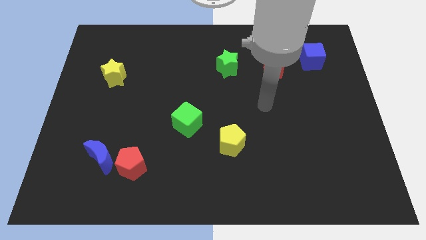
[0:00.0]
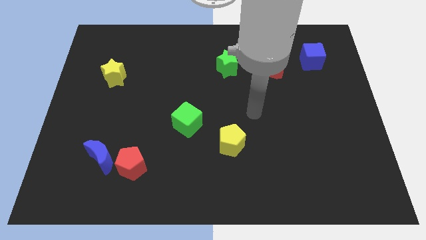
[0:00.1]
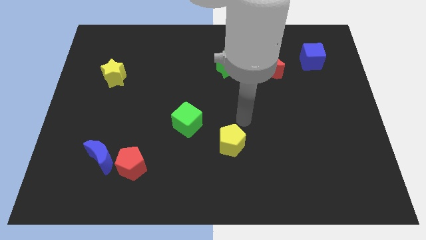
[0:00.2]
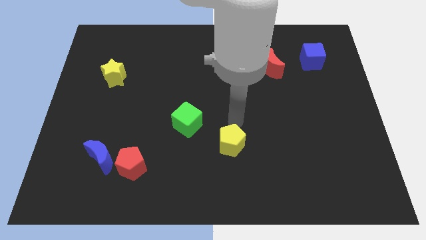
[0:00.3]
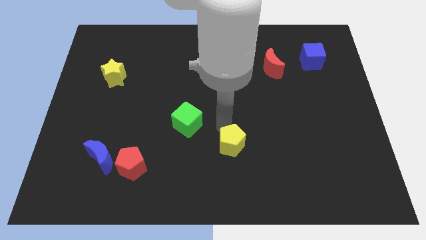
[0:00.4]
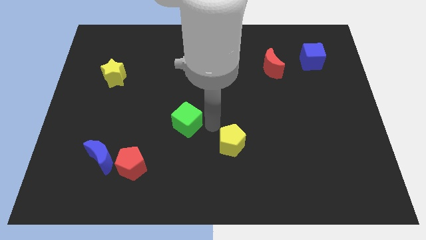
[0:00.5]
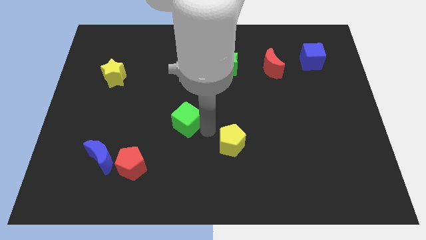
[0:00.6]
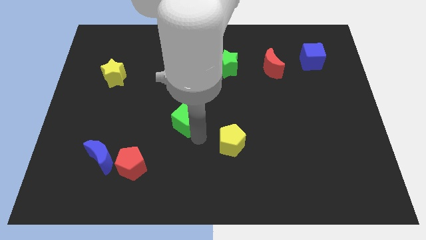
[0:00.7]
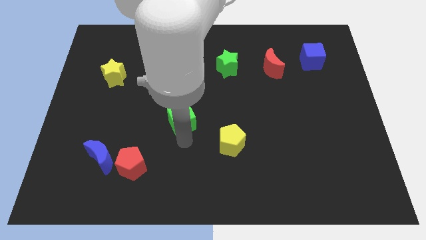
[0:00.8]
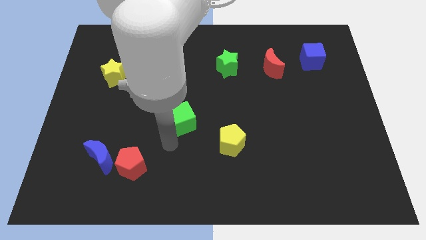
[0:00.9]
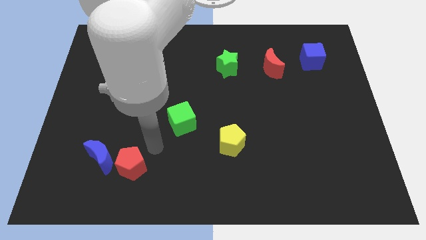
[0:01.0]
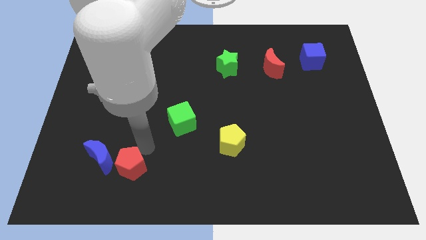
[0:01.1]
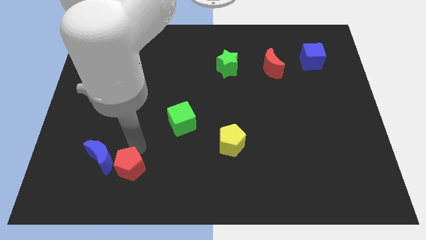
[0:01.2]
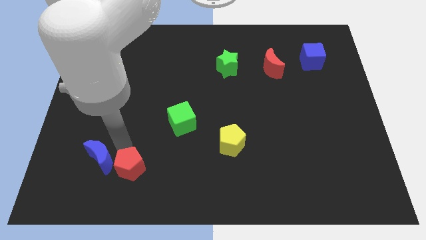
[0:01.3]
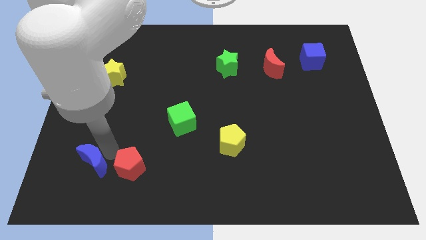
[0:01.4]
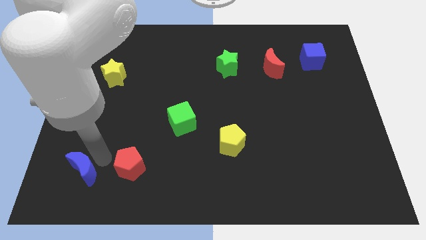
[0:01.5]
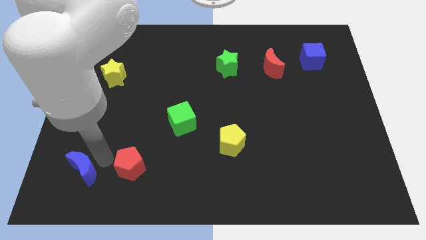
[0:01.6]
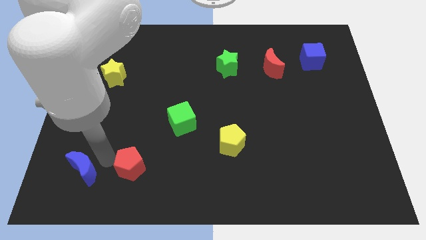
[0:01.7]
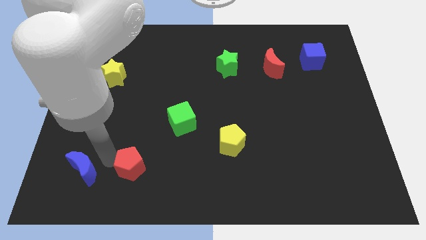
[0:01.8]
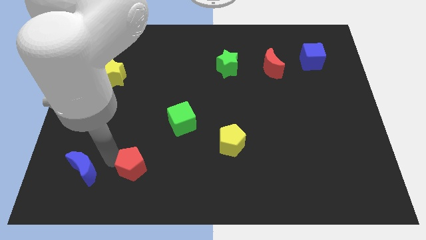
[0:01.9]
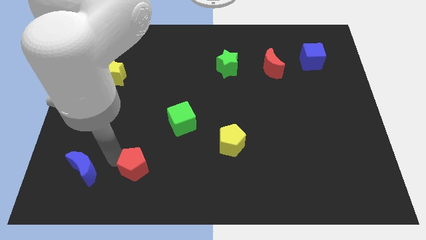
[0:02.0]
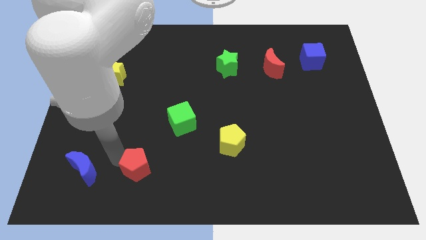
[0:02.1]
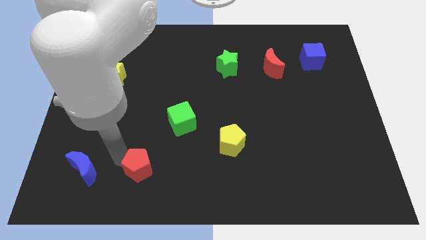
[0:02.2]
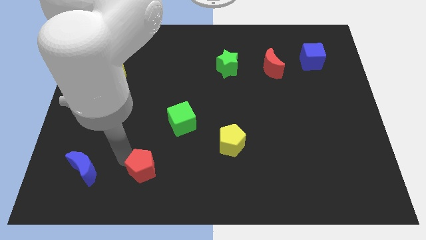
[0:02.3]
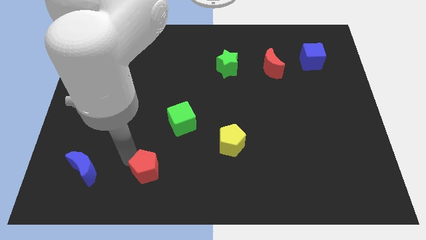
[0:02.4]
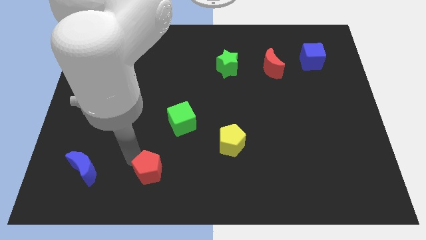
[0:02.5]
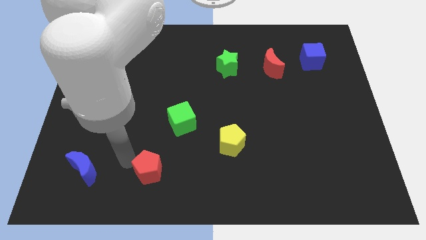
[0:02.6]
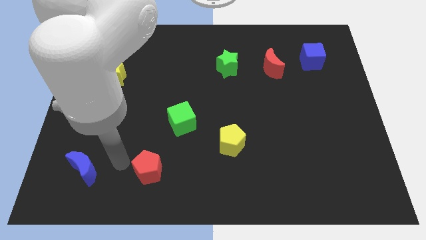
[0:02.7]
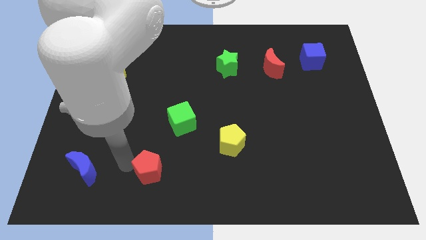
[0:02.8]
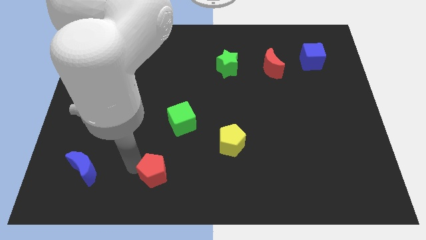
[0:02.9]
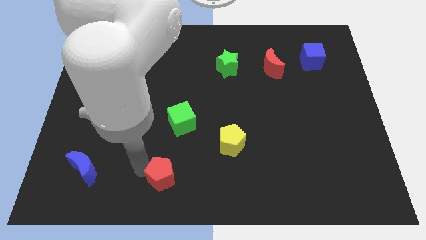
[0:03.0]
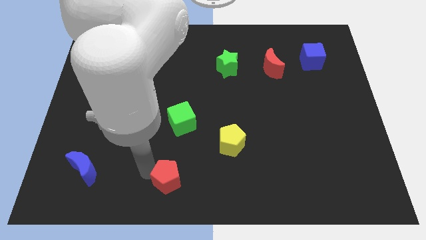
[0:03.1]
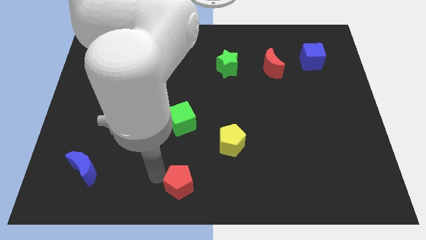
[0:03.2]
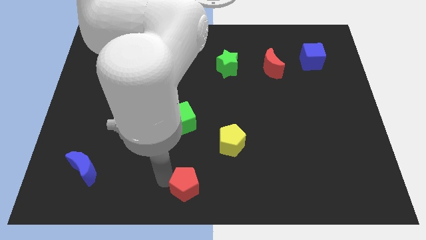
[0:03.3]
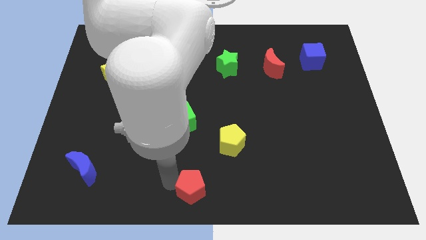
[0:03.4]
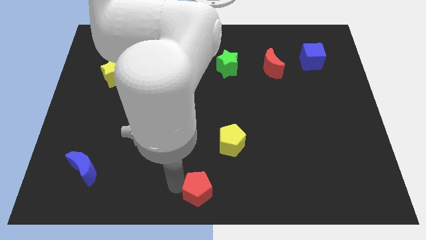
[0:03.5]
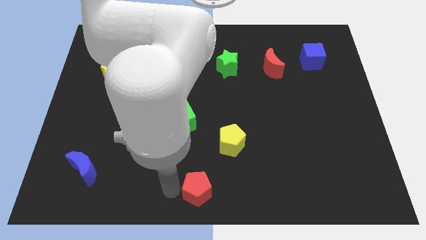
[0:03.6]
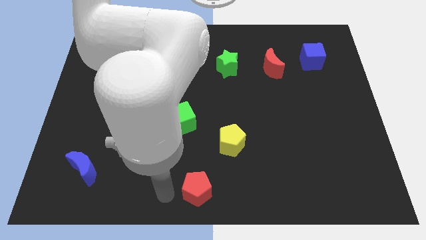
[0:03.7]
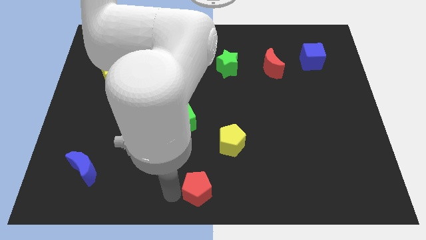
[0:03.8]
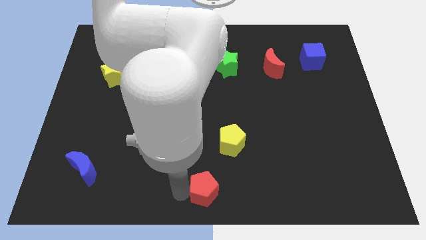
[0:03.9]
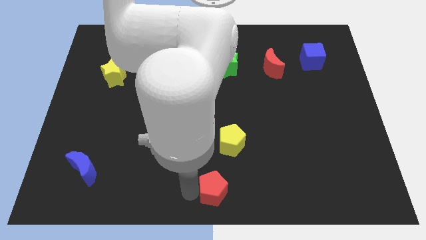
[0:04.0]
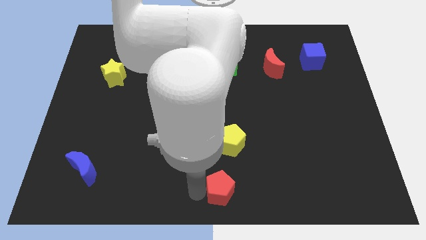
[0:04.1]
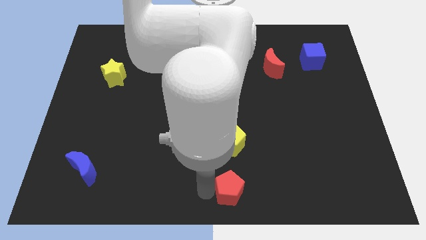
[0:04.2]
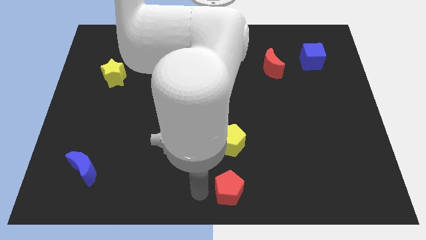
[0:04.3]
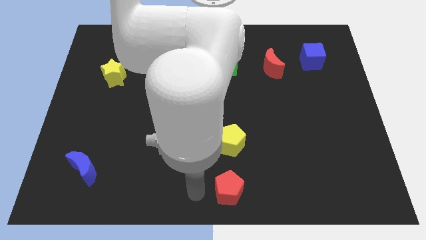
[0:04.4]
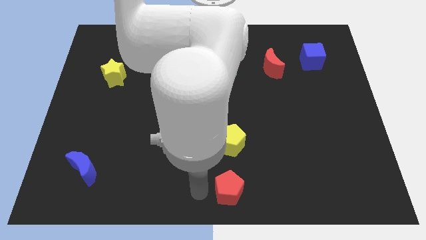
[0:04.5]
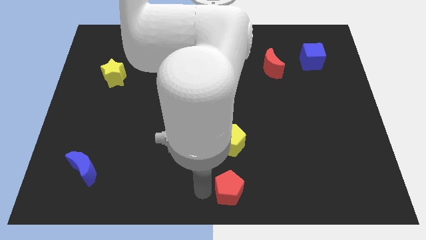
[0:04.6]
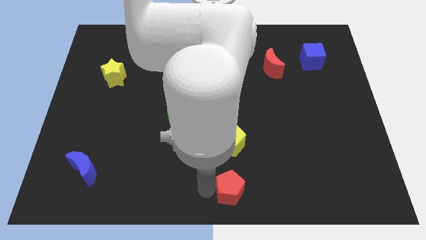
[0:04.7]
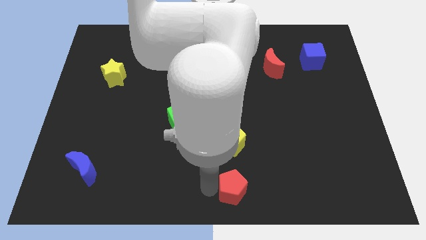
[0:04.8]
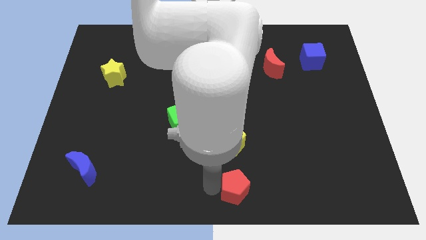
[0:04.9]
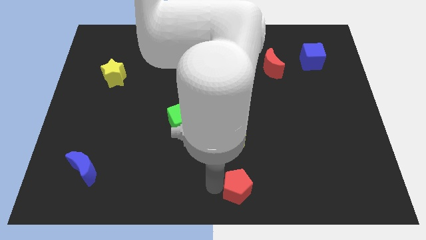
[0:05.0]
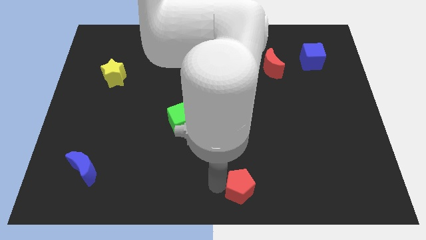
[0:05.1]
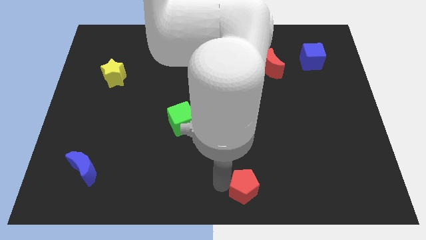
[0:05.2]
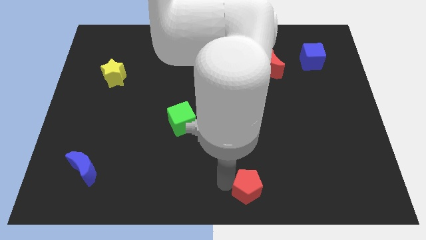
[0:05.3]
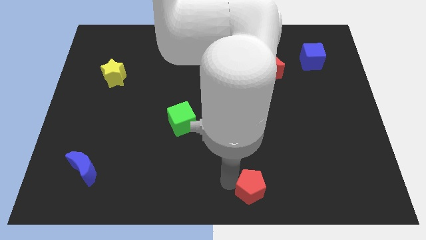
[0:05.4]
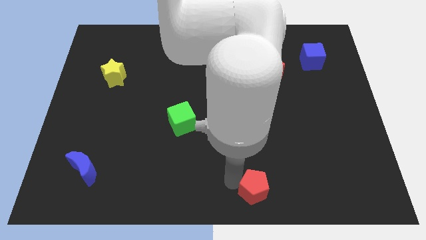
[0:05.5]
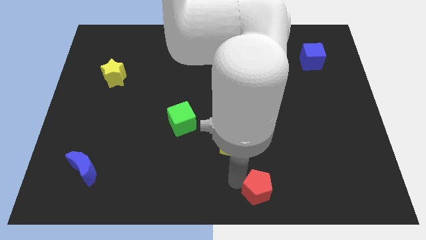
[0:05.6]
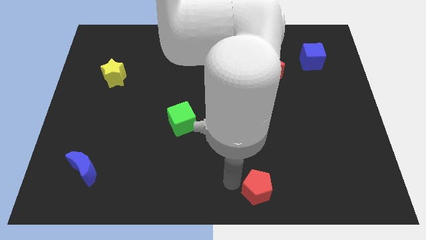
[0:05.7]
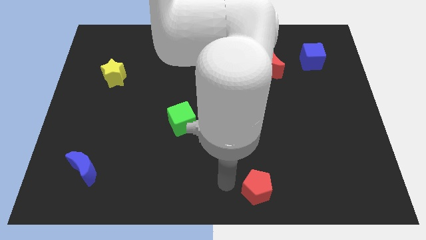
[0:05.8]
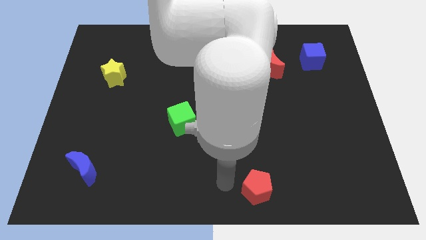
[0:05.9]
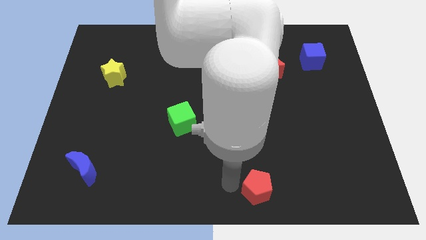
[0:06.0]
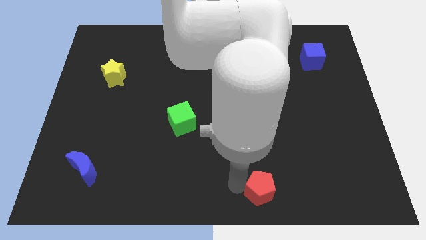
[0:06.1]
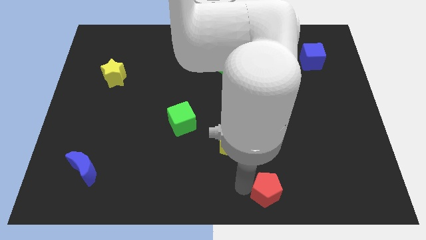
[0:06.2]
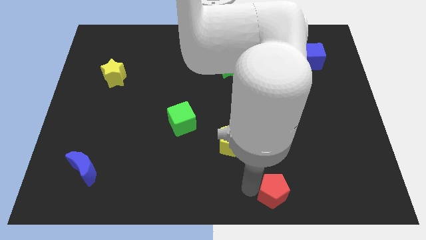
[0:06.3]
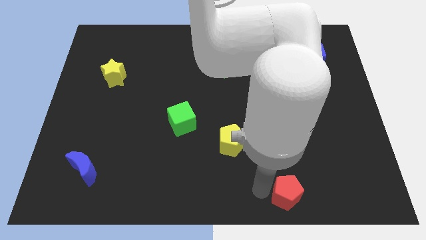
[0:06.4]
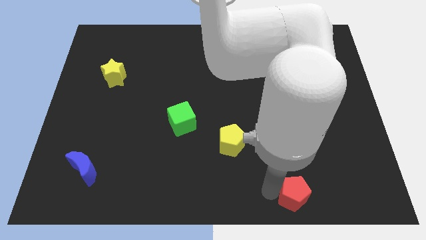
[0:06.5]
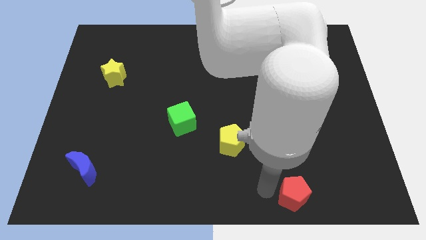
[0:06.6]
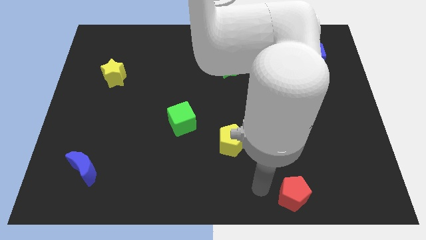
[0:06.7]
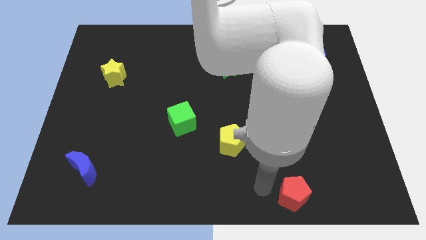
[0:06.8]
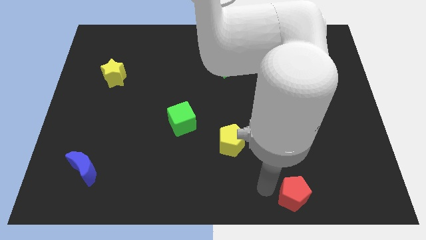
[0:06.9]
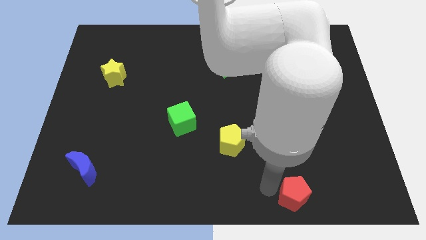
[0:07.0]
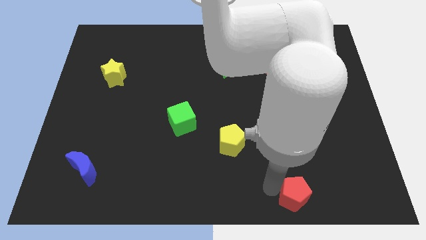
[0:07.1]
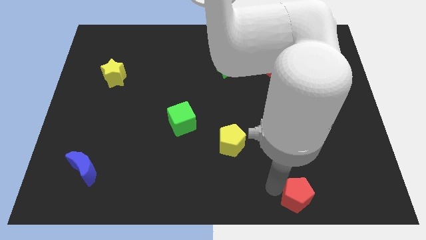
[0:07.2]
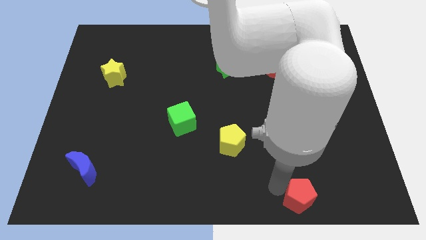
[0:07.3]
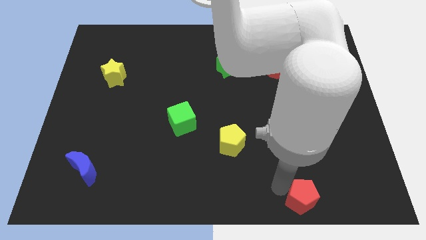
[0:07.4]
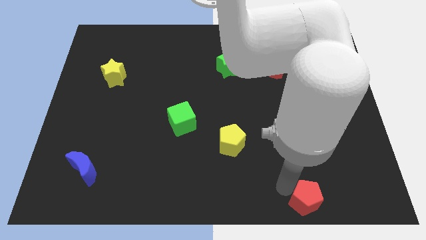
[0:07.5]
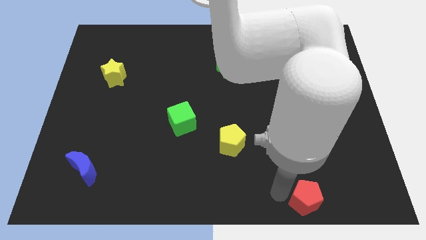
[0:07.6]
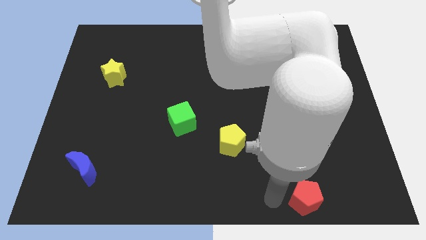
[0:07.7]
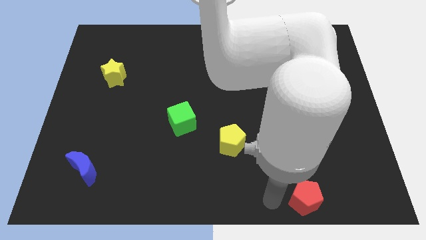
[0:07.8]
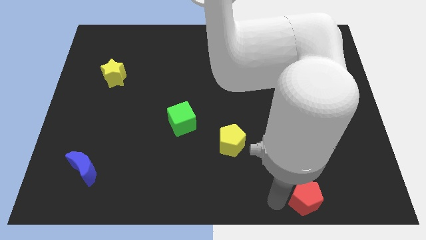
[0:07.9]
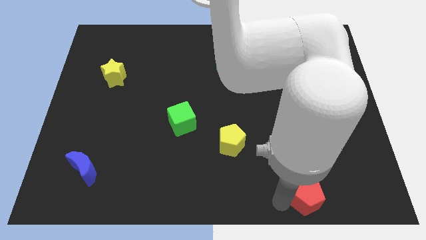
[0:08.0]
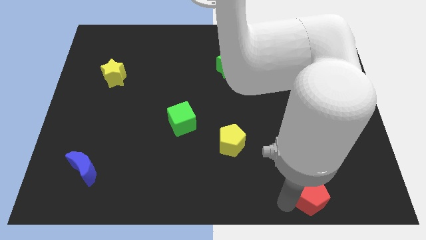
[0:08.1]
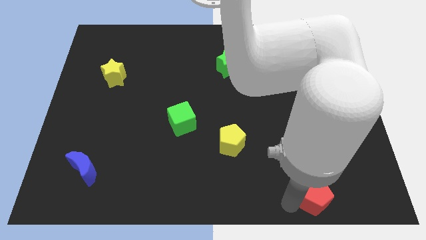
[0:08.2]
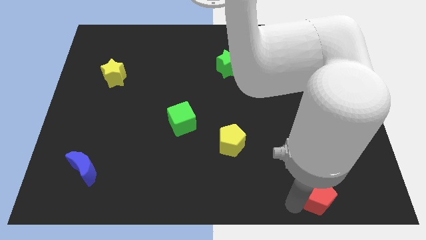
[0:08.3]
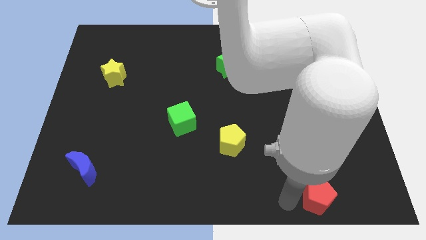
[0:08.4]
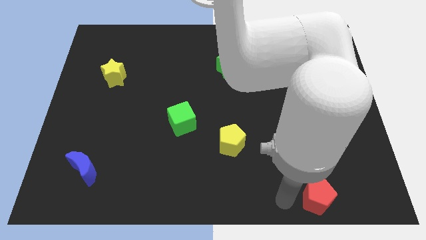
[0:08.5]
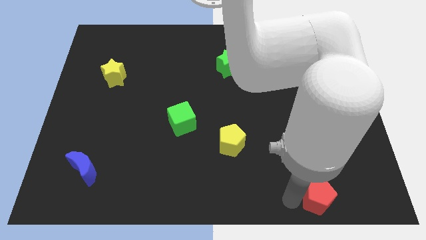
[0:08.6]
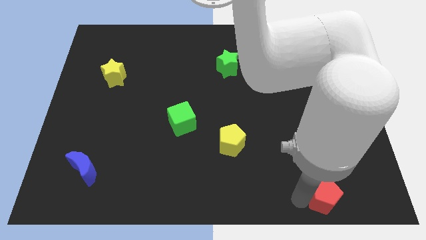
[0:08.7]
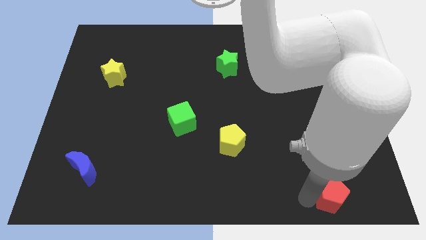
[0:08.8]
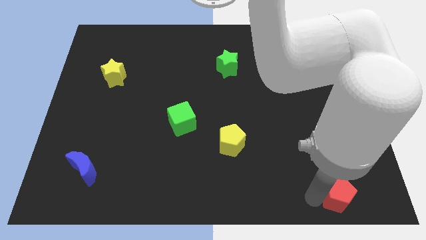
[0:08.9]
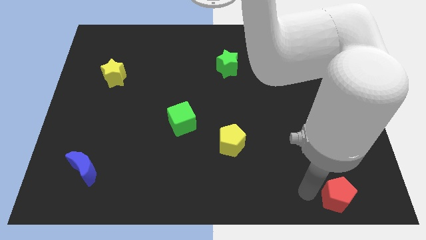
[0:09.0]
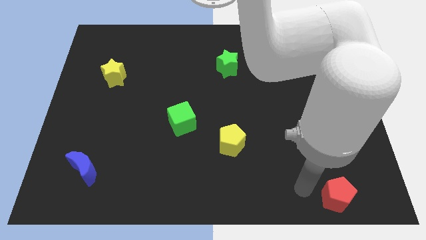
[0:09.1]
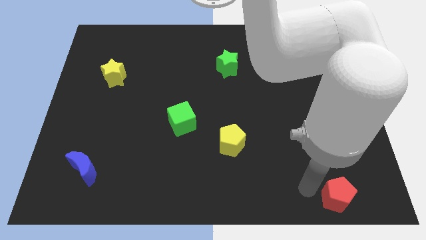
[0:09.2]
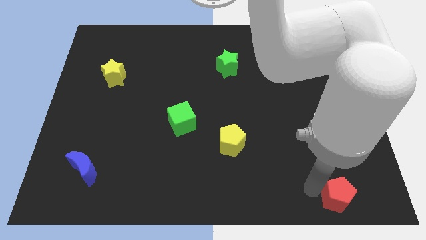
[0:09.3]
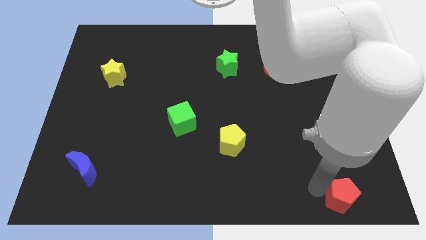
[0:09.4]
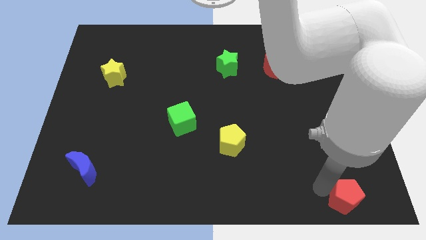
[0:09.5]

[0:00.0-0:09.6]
move the red pentagon to the bottom right
